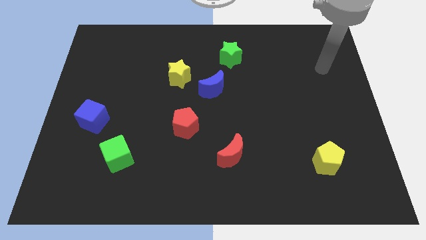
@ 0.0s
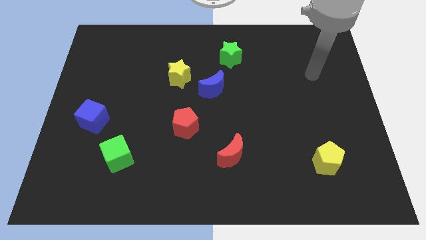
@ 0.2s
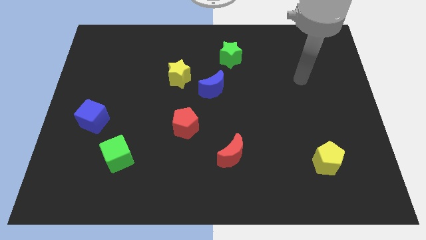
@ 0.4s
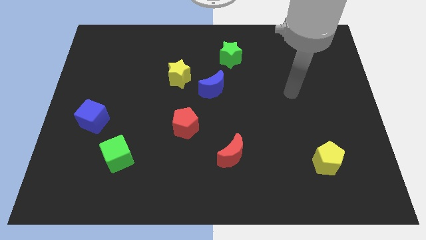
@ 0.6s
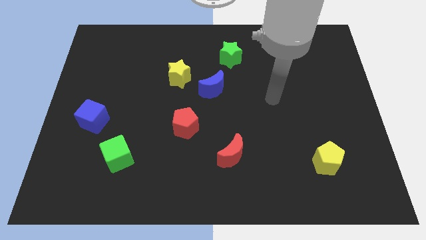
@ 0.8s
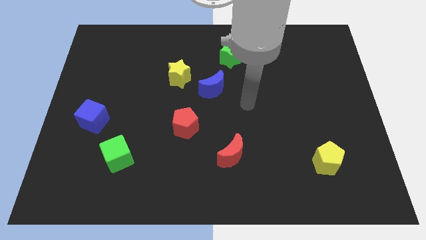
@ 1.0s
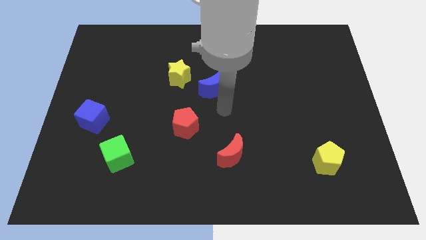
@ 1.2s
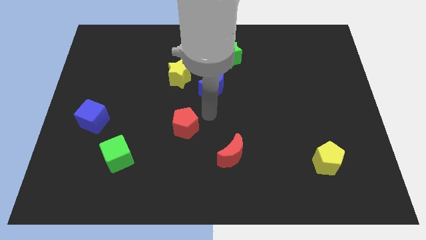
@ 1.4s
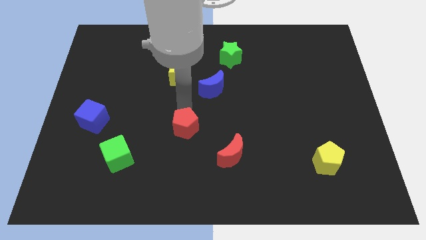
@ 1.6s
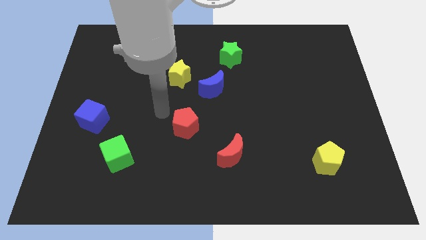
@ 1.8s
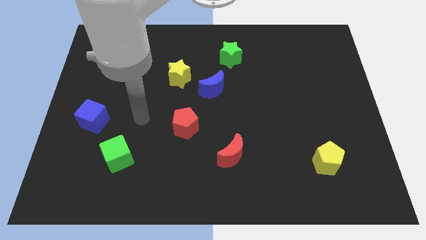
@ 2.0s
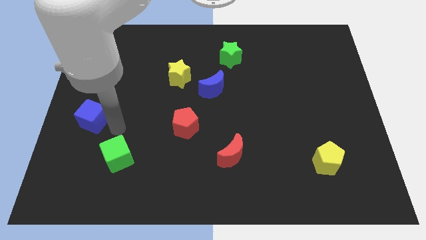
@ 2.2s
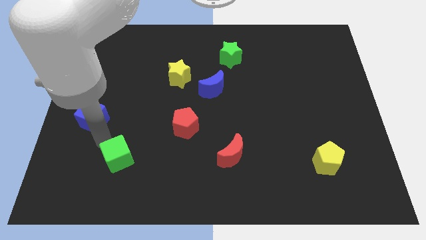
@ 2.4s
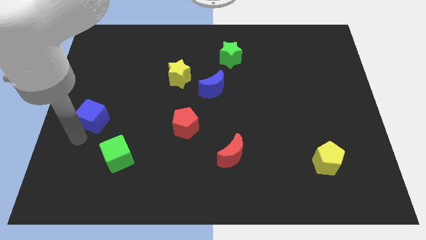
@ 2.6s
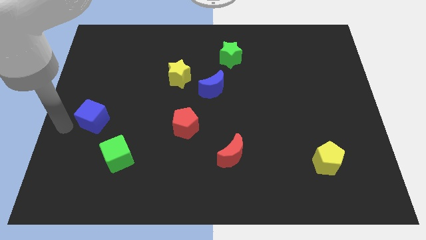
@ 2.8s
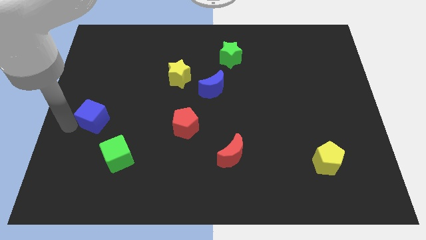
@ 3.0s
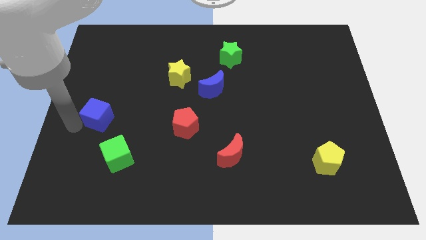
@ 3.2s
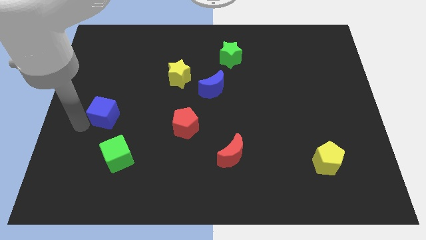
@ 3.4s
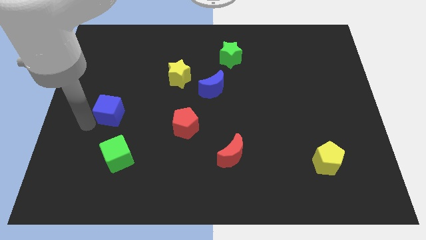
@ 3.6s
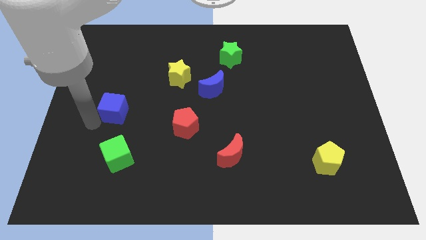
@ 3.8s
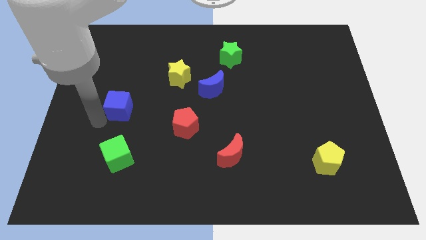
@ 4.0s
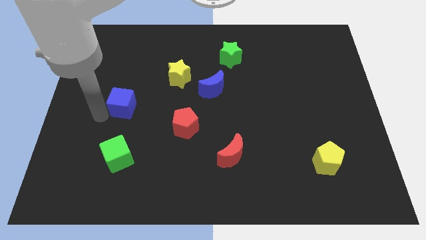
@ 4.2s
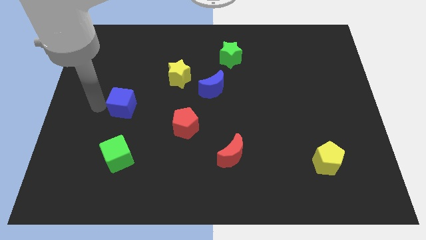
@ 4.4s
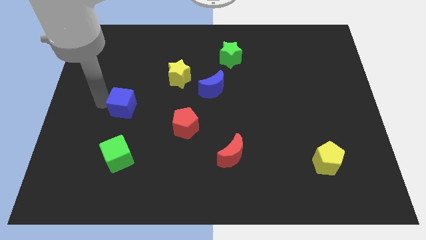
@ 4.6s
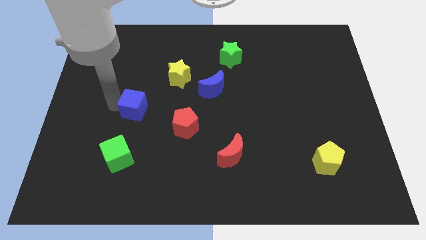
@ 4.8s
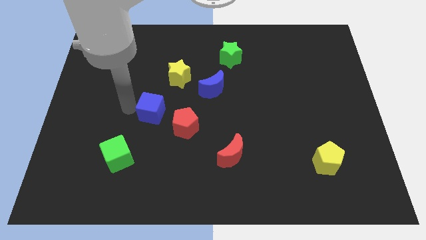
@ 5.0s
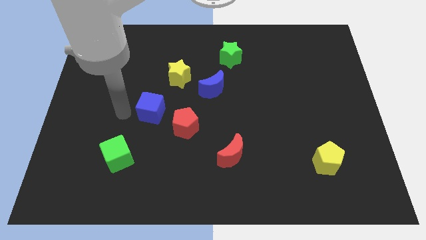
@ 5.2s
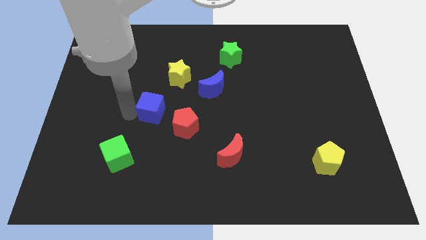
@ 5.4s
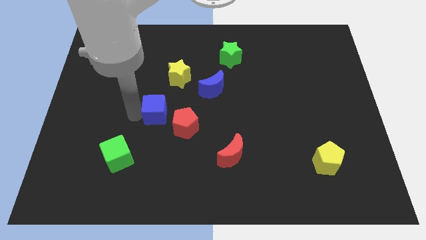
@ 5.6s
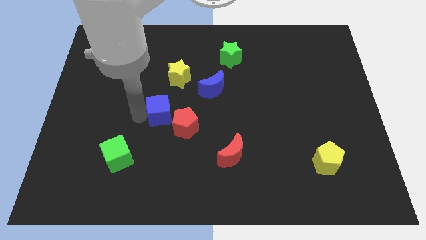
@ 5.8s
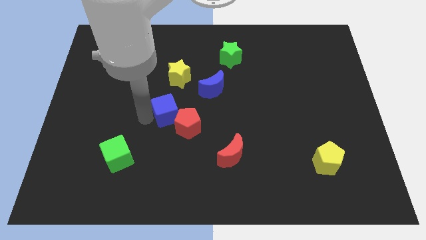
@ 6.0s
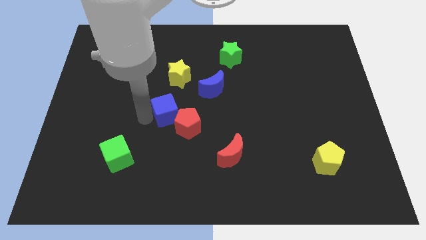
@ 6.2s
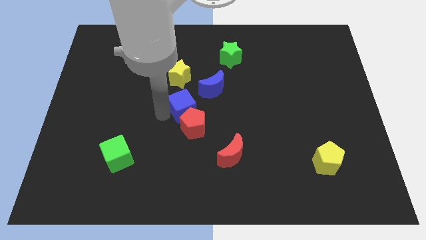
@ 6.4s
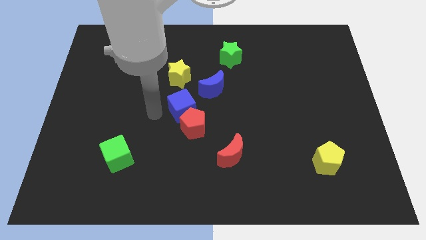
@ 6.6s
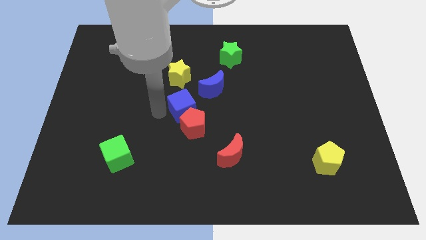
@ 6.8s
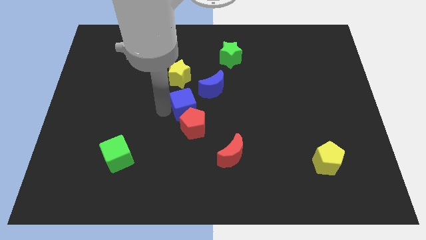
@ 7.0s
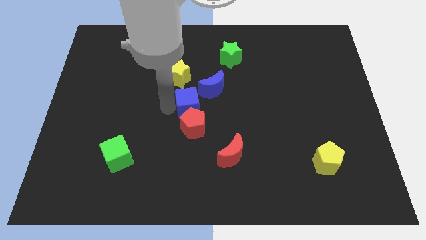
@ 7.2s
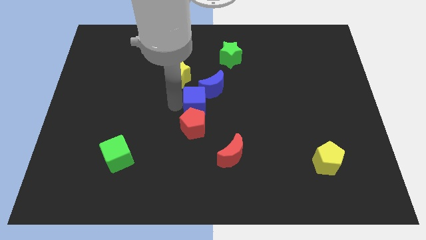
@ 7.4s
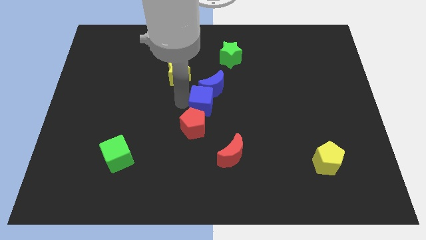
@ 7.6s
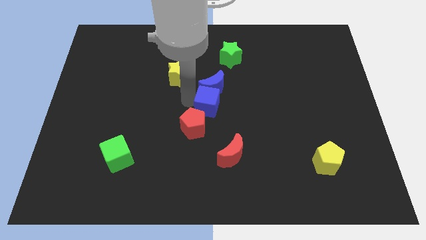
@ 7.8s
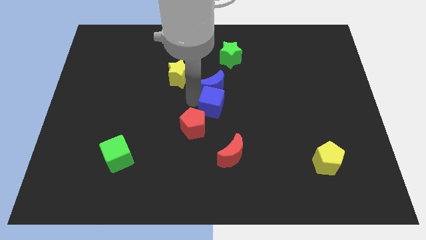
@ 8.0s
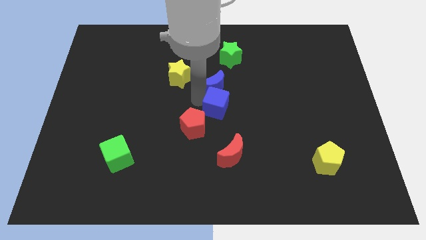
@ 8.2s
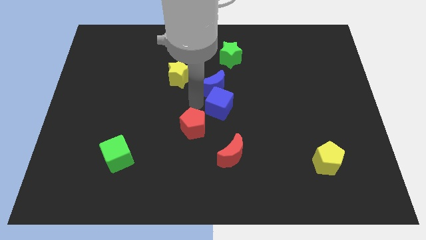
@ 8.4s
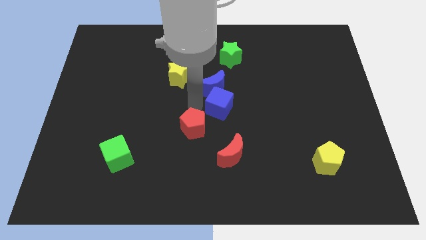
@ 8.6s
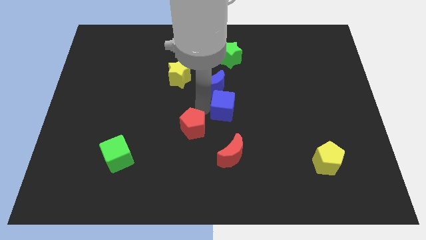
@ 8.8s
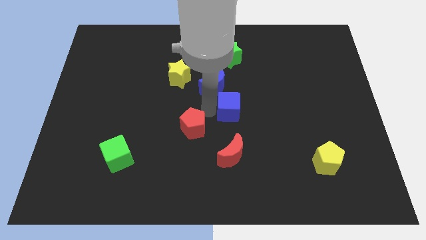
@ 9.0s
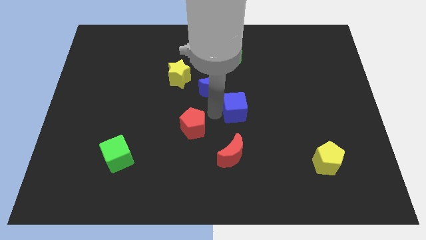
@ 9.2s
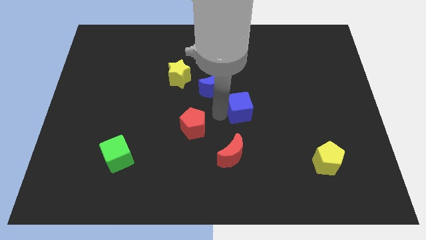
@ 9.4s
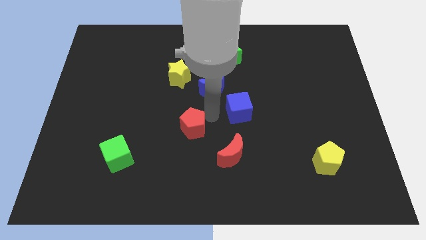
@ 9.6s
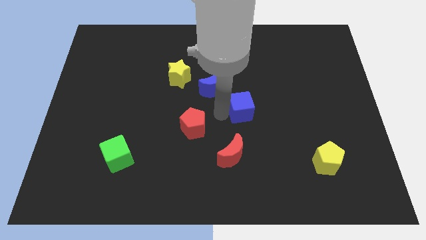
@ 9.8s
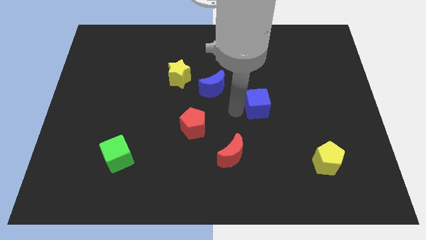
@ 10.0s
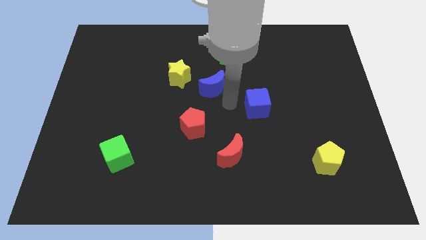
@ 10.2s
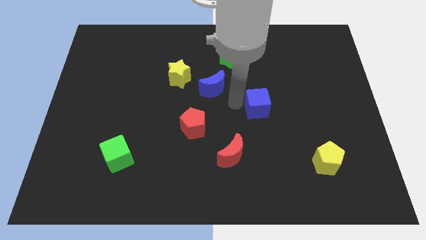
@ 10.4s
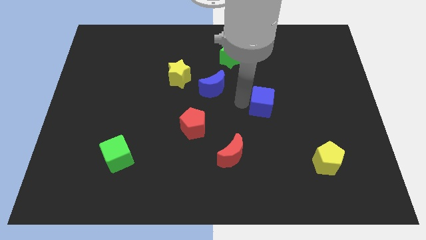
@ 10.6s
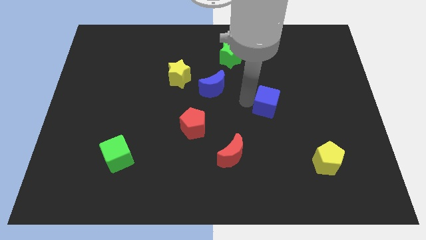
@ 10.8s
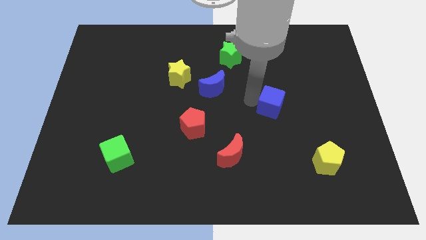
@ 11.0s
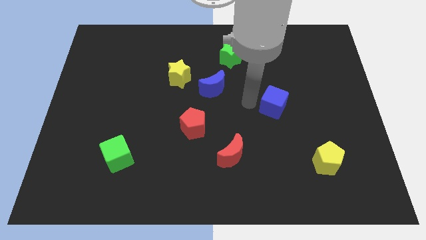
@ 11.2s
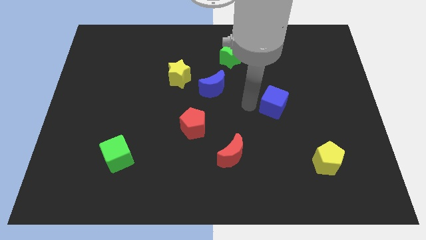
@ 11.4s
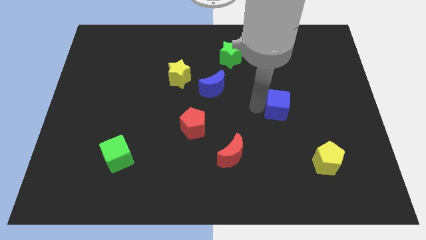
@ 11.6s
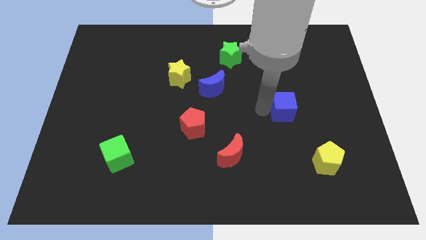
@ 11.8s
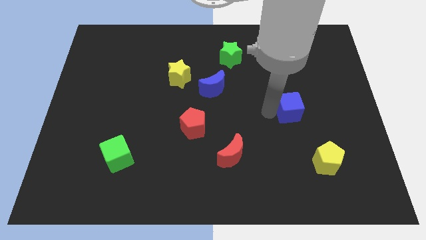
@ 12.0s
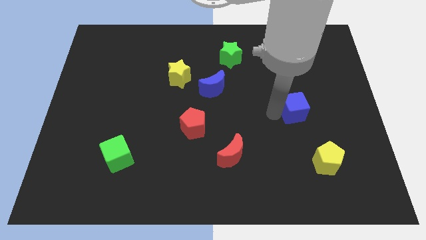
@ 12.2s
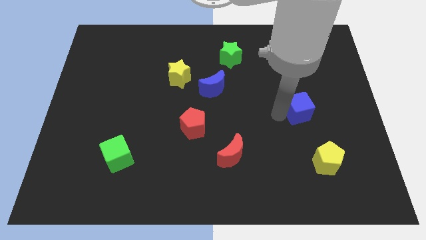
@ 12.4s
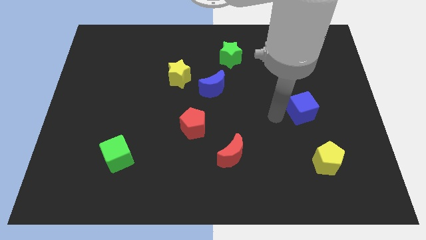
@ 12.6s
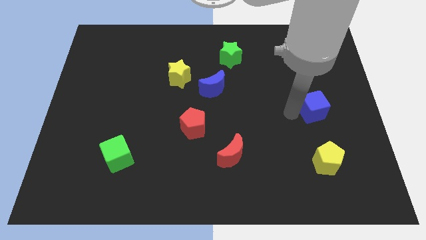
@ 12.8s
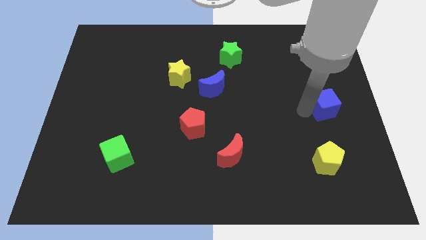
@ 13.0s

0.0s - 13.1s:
slide the blue cube to the right side of the board
